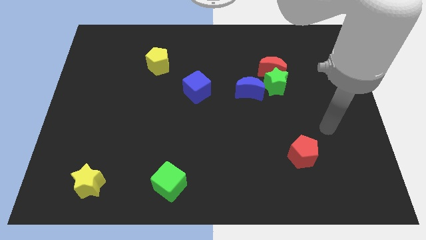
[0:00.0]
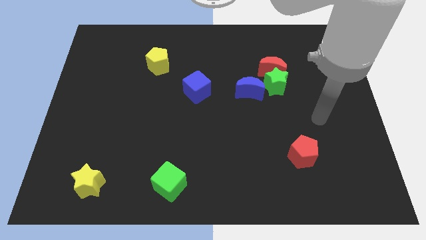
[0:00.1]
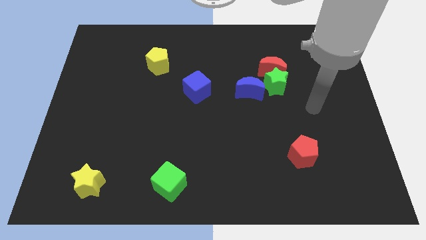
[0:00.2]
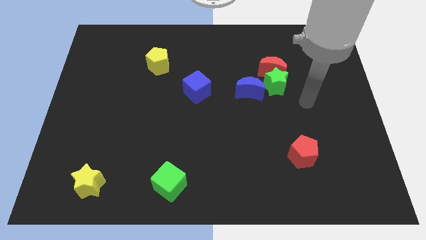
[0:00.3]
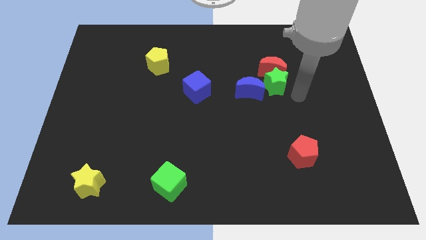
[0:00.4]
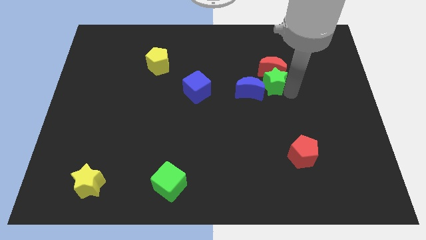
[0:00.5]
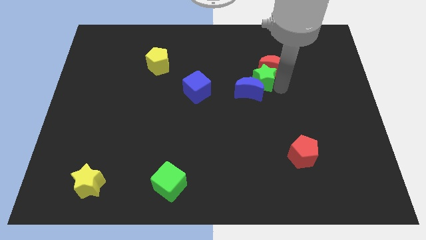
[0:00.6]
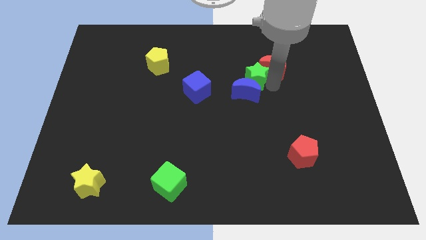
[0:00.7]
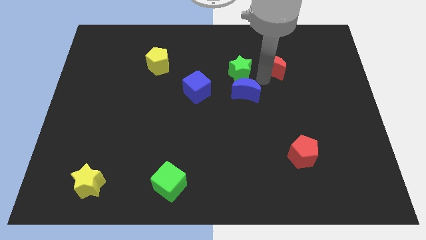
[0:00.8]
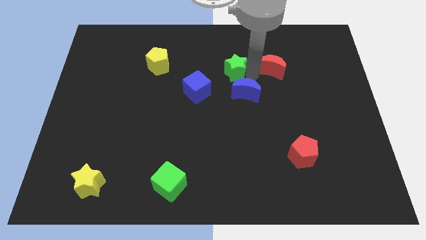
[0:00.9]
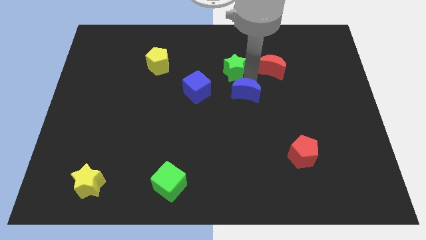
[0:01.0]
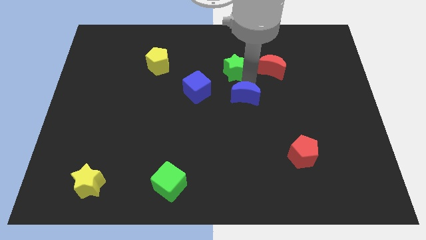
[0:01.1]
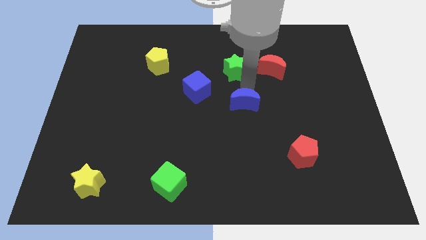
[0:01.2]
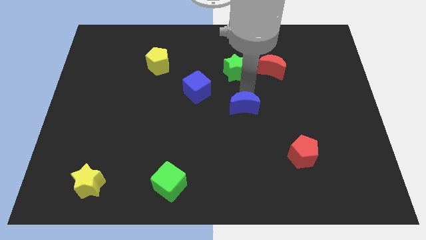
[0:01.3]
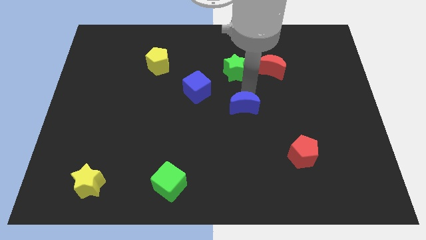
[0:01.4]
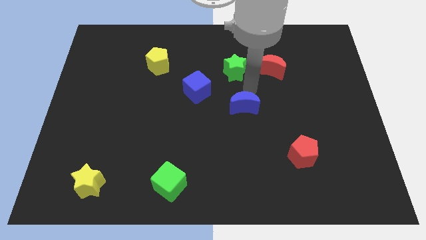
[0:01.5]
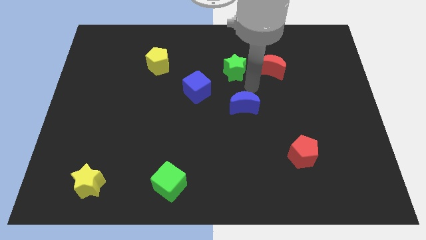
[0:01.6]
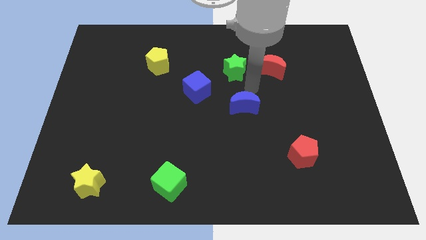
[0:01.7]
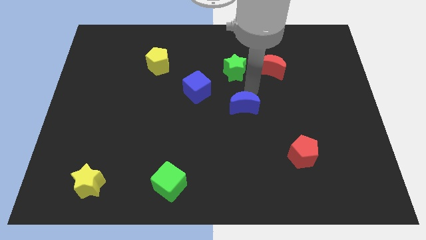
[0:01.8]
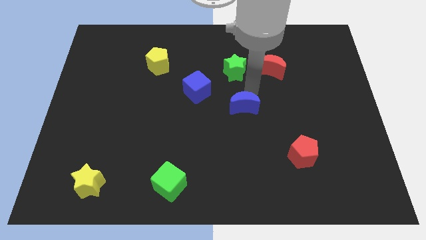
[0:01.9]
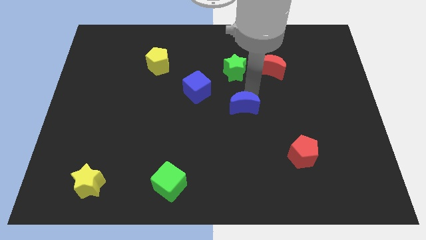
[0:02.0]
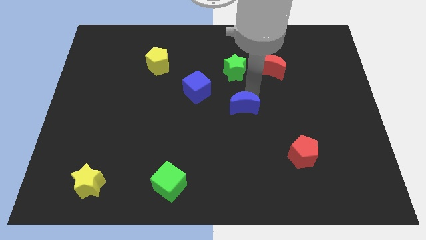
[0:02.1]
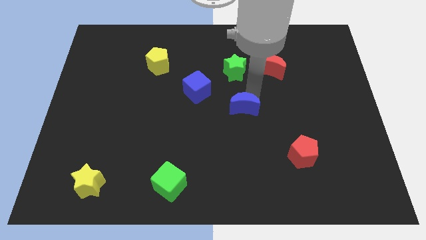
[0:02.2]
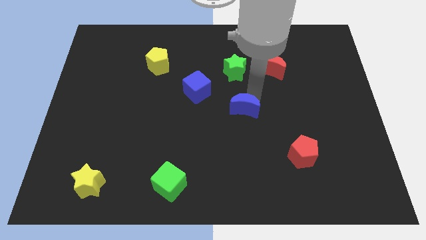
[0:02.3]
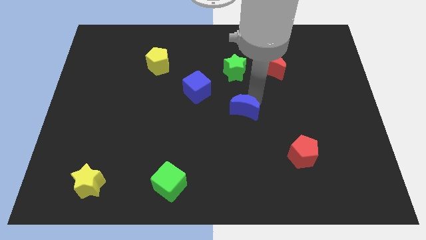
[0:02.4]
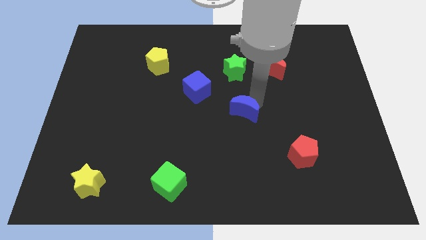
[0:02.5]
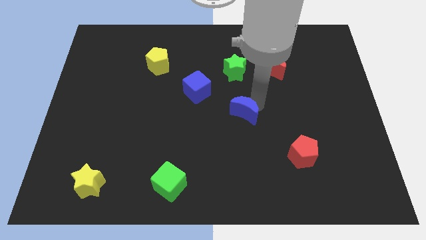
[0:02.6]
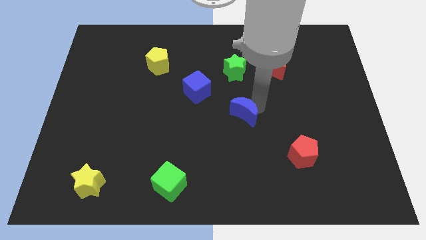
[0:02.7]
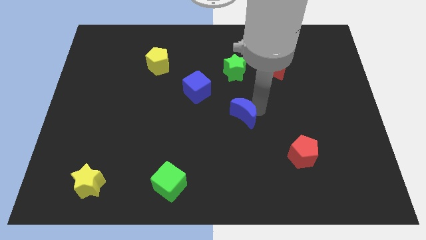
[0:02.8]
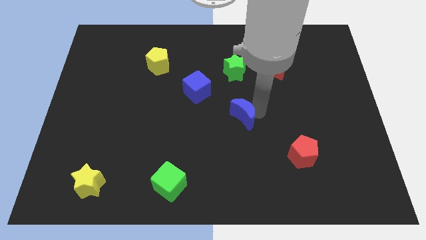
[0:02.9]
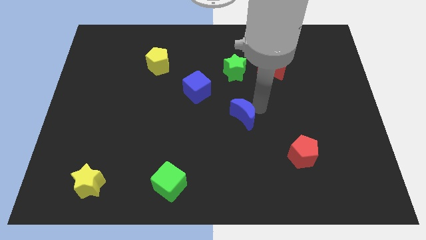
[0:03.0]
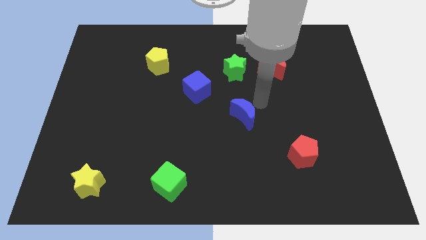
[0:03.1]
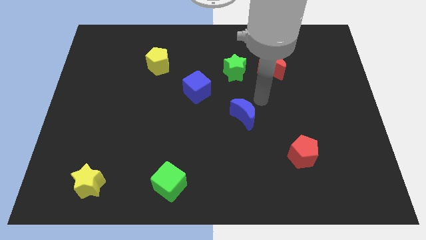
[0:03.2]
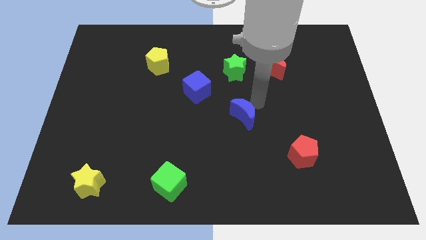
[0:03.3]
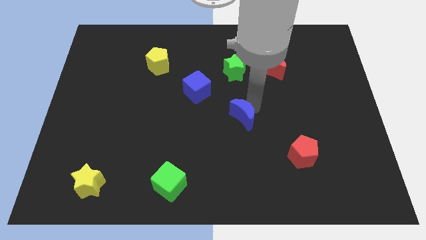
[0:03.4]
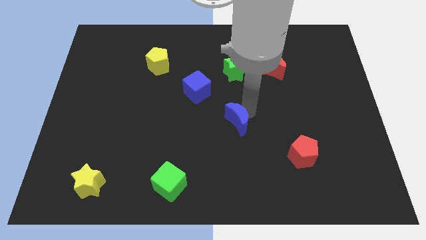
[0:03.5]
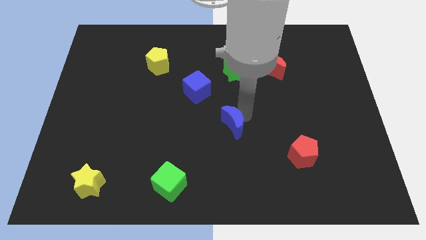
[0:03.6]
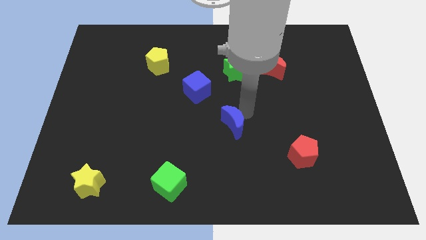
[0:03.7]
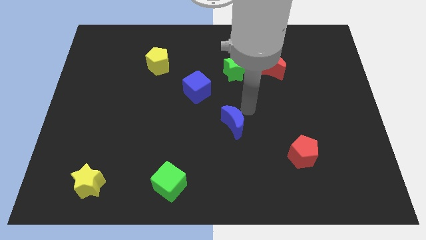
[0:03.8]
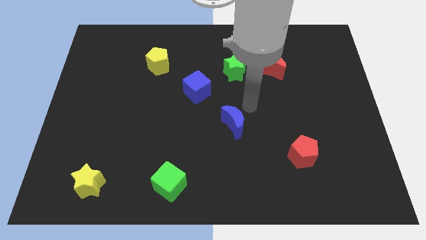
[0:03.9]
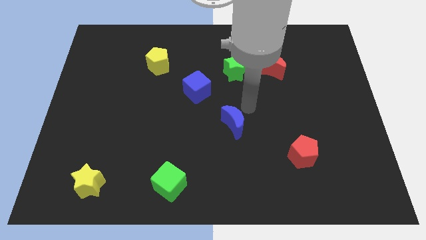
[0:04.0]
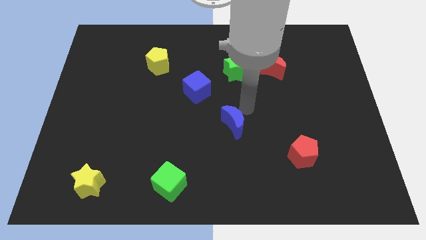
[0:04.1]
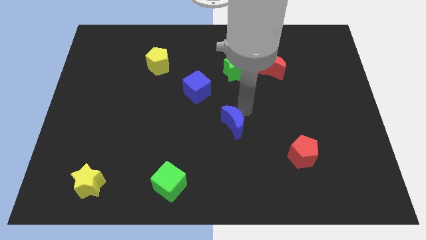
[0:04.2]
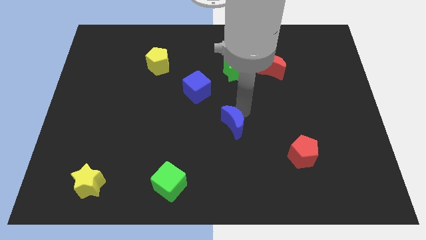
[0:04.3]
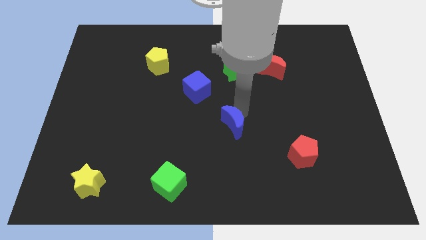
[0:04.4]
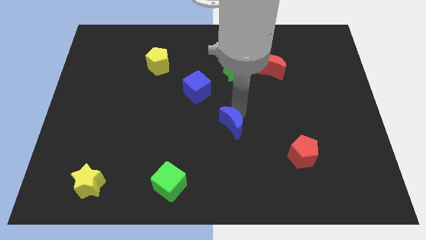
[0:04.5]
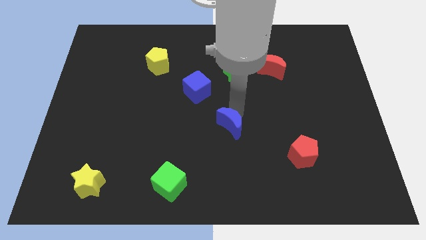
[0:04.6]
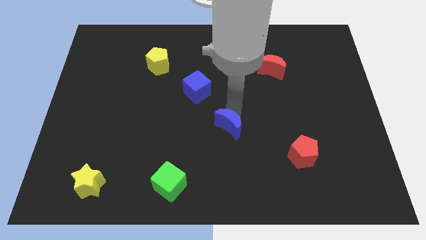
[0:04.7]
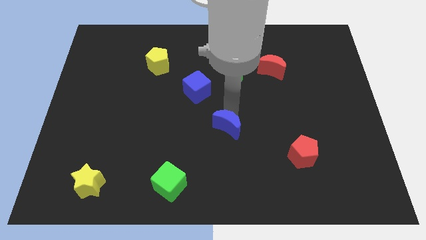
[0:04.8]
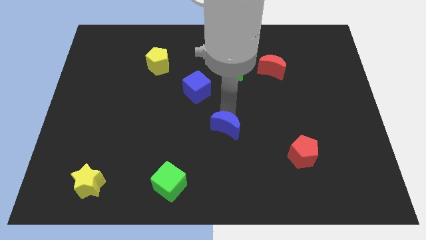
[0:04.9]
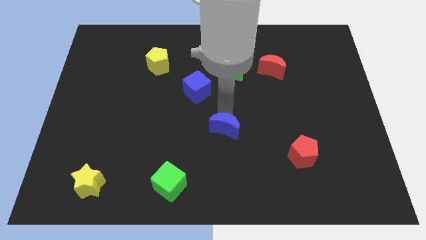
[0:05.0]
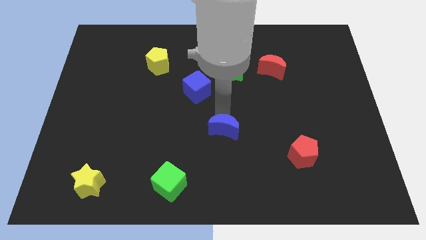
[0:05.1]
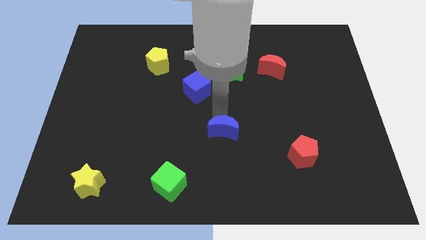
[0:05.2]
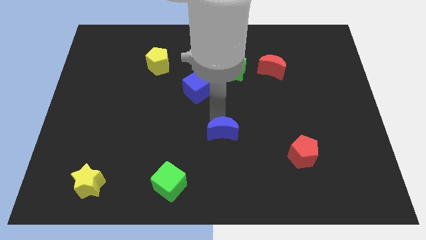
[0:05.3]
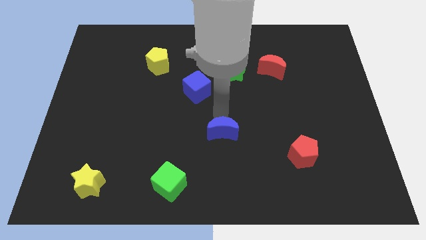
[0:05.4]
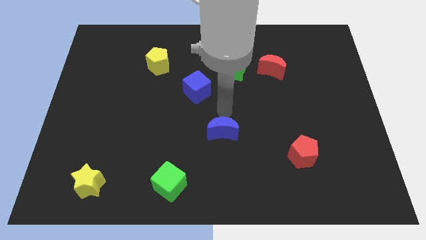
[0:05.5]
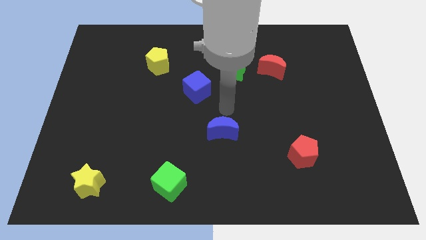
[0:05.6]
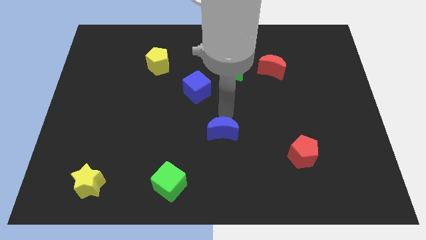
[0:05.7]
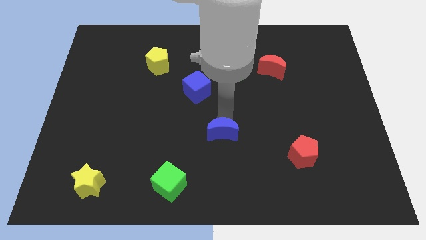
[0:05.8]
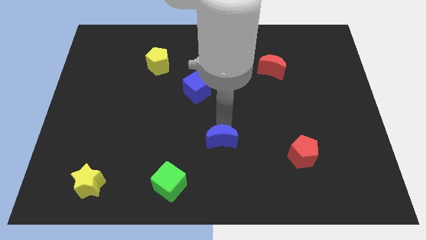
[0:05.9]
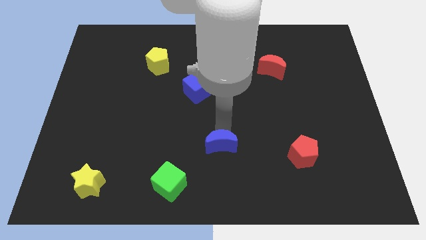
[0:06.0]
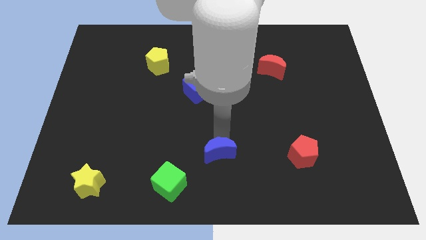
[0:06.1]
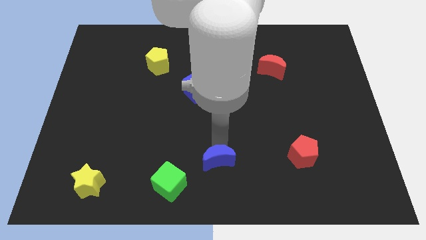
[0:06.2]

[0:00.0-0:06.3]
move the blue moon to the bottom side

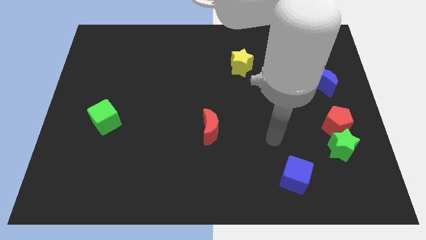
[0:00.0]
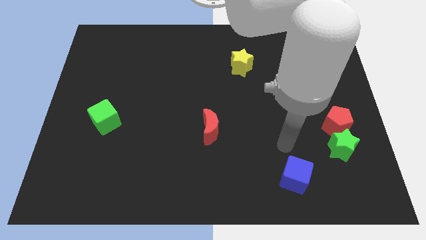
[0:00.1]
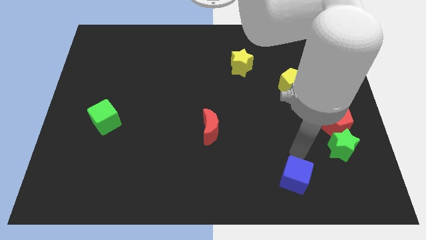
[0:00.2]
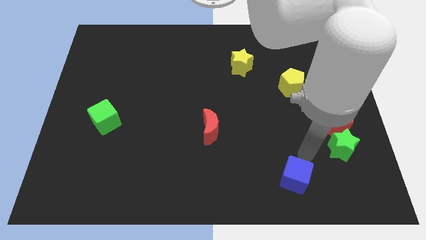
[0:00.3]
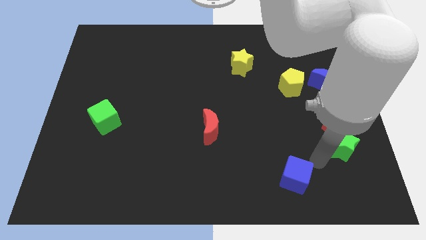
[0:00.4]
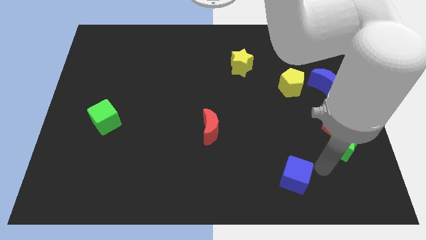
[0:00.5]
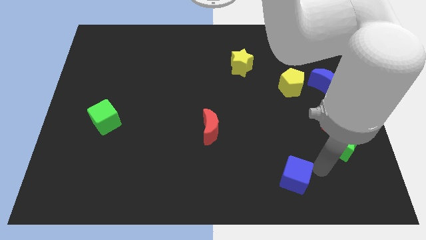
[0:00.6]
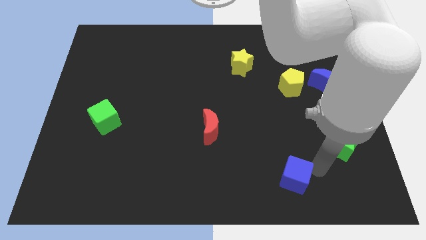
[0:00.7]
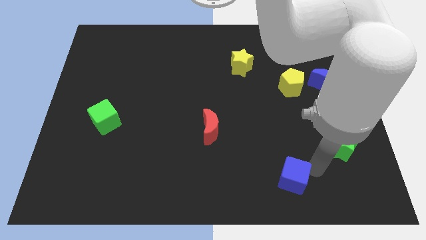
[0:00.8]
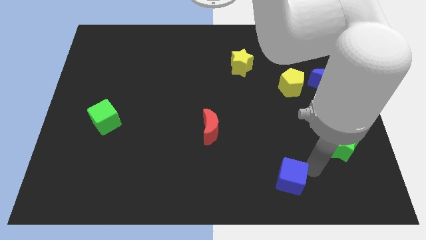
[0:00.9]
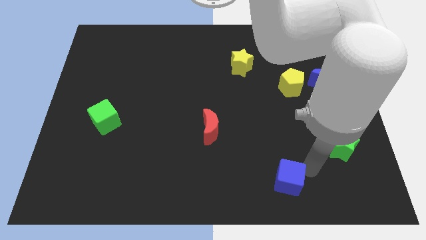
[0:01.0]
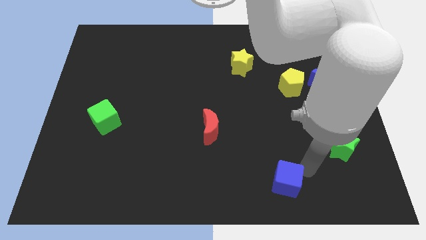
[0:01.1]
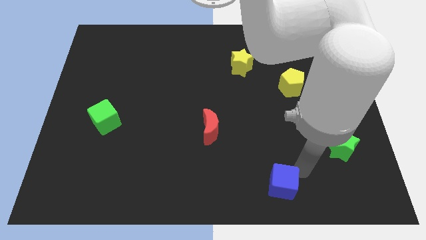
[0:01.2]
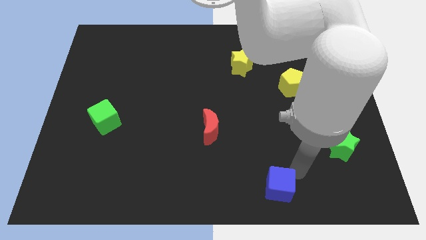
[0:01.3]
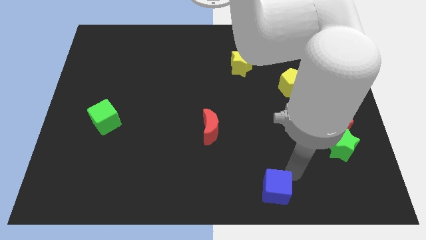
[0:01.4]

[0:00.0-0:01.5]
push the blue cube to the bottom side

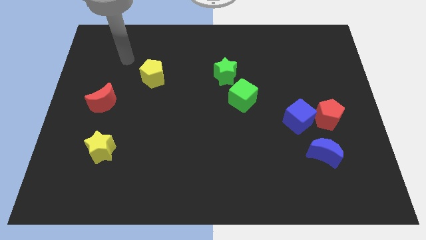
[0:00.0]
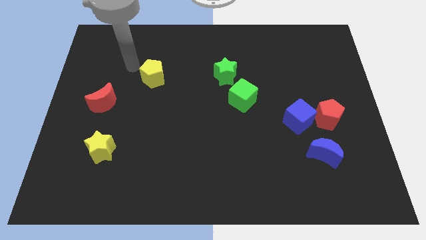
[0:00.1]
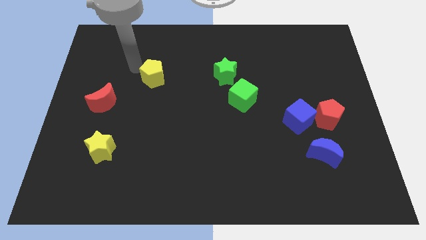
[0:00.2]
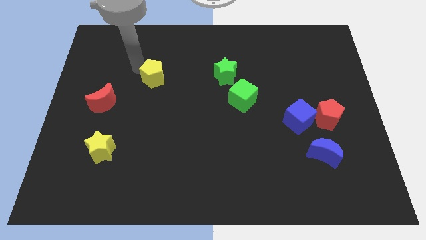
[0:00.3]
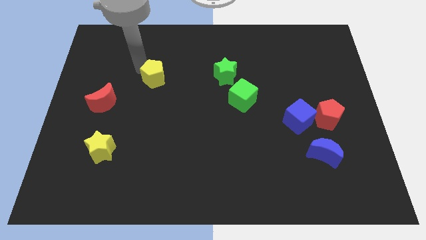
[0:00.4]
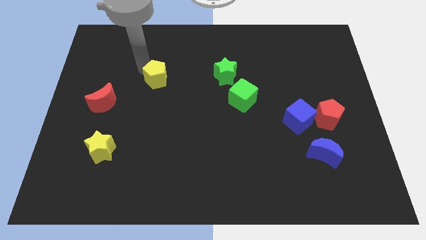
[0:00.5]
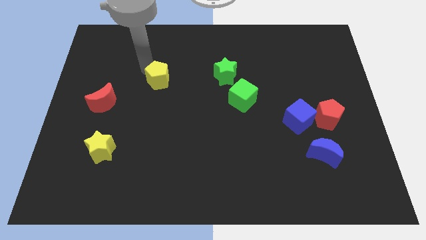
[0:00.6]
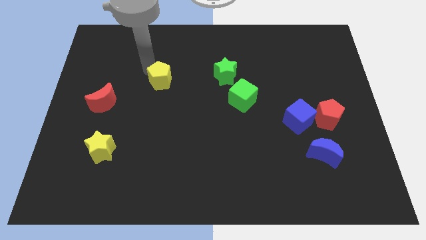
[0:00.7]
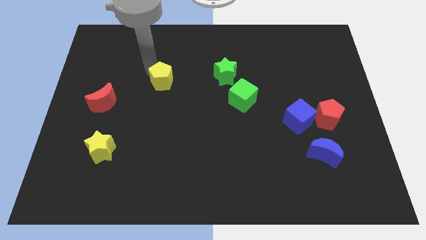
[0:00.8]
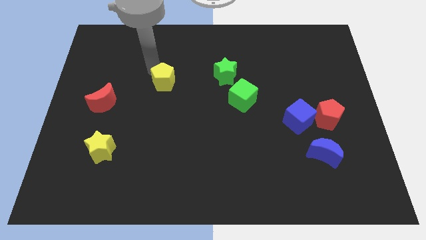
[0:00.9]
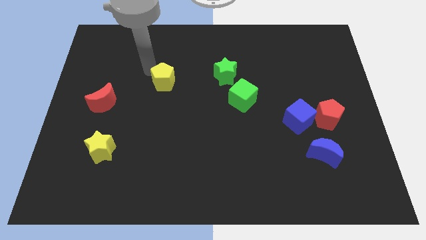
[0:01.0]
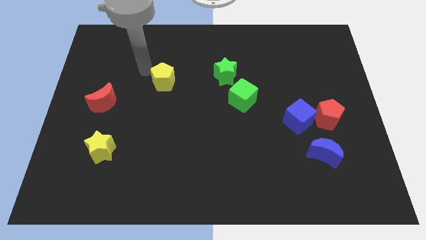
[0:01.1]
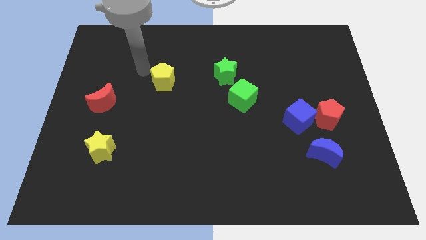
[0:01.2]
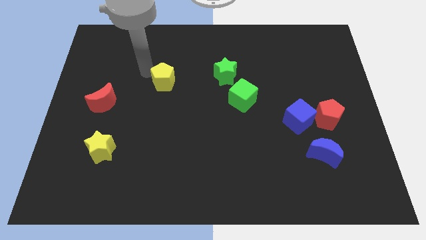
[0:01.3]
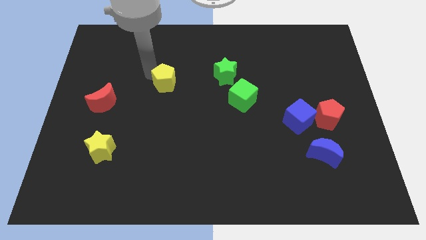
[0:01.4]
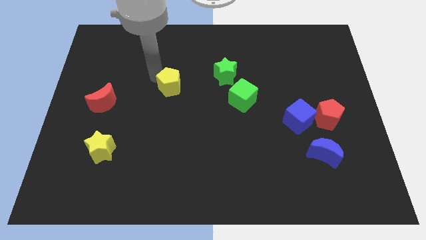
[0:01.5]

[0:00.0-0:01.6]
push the yellow pentagon to the middle
